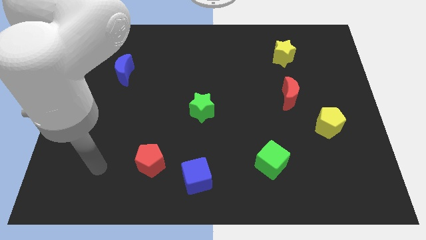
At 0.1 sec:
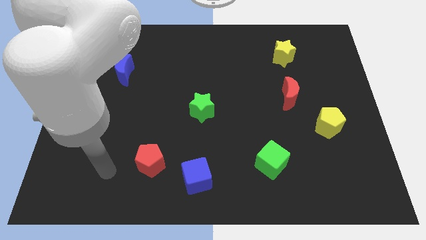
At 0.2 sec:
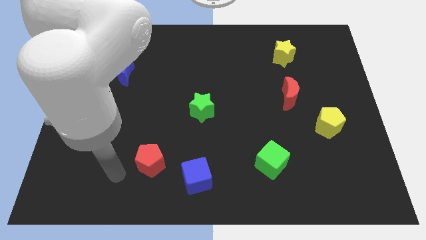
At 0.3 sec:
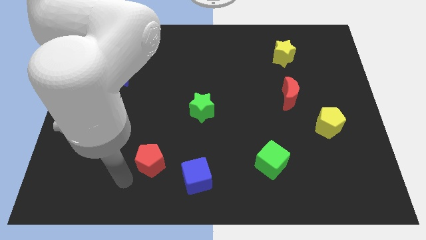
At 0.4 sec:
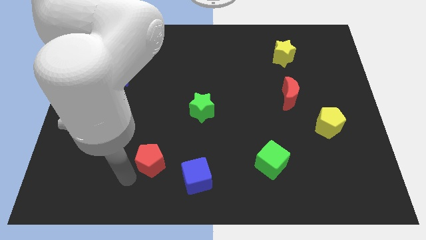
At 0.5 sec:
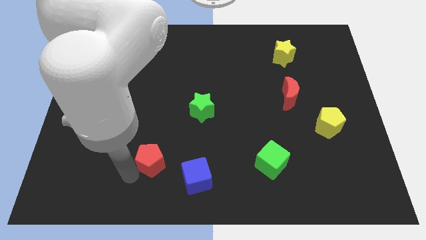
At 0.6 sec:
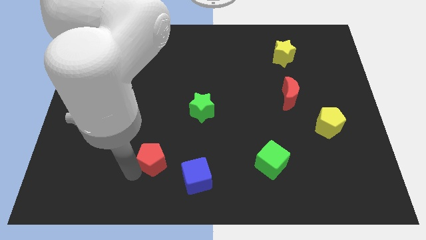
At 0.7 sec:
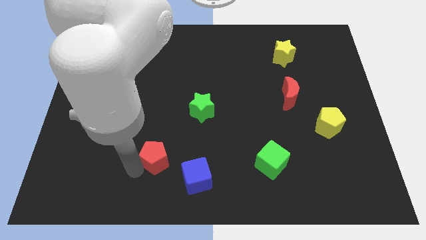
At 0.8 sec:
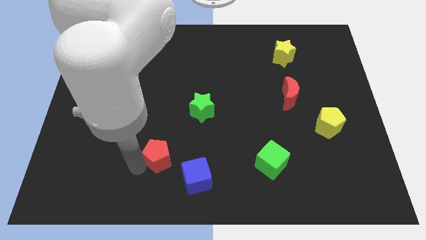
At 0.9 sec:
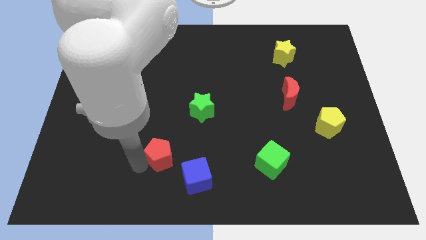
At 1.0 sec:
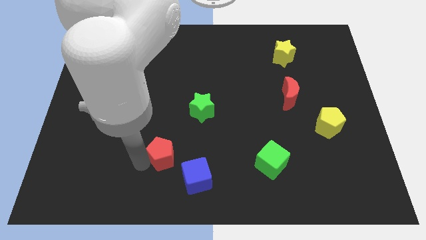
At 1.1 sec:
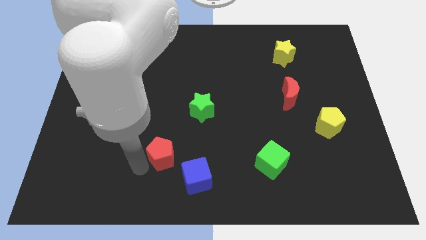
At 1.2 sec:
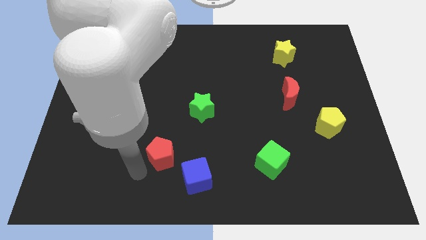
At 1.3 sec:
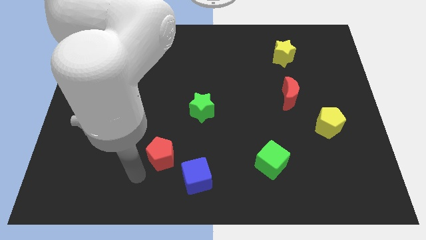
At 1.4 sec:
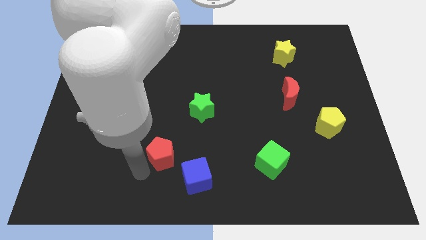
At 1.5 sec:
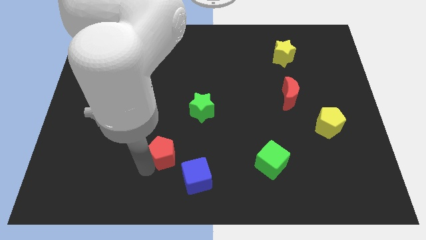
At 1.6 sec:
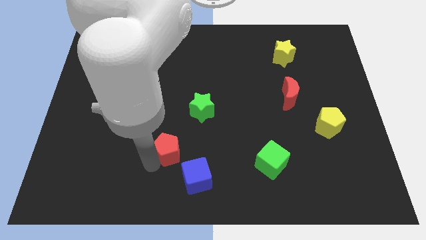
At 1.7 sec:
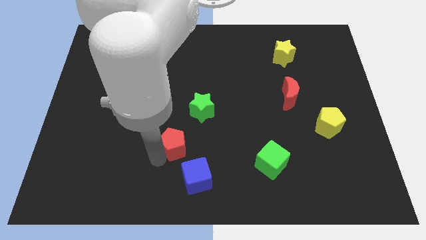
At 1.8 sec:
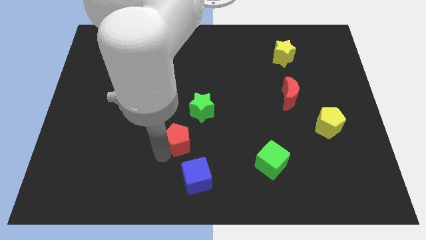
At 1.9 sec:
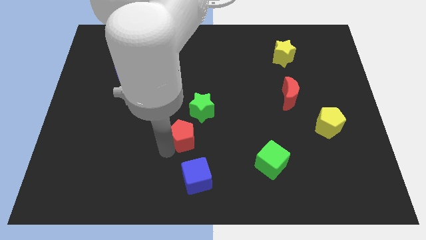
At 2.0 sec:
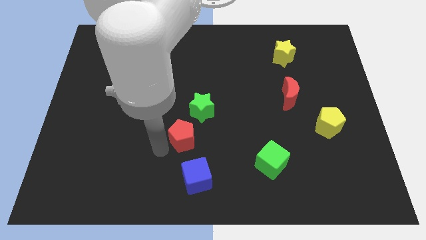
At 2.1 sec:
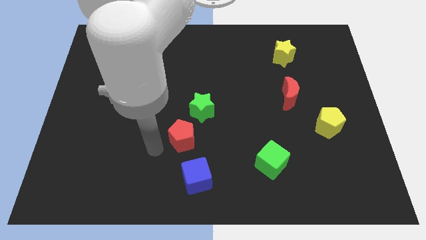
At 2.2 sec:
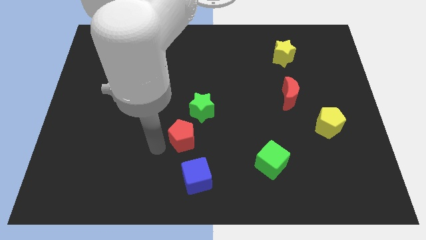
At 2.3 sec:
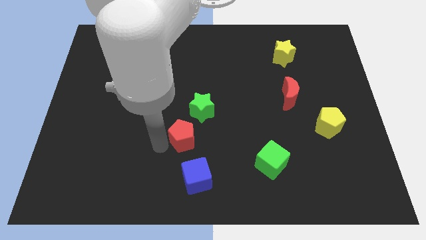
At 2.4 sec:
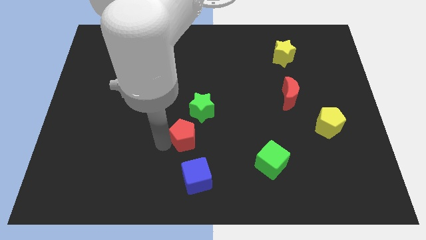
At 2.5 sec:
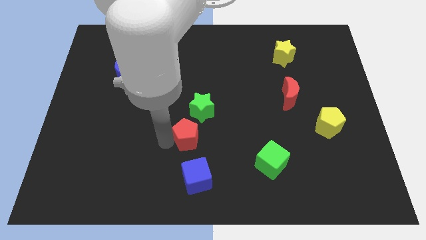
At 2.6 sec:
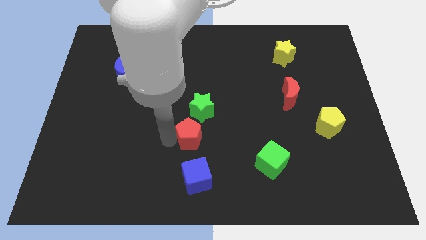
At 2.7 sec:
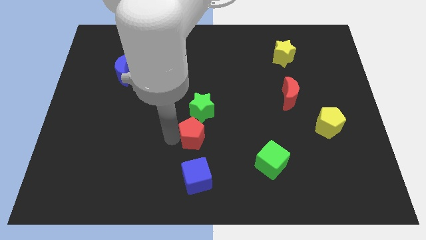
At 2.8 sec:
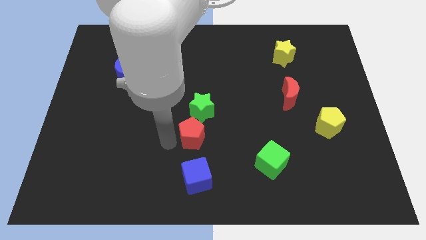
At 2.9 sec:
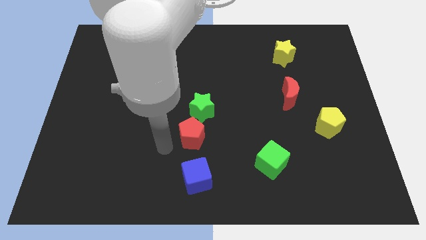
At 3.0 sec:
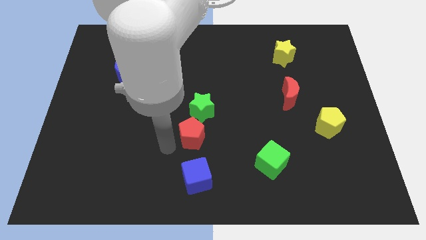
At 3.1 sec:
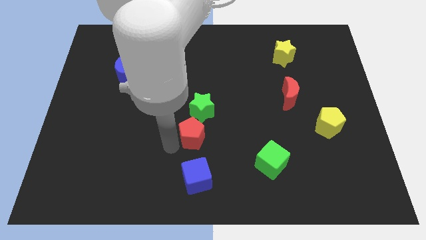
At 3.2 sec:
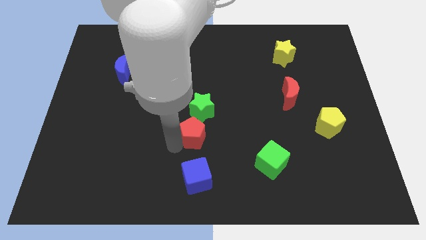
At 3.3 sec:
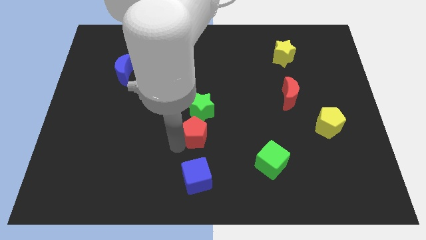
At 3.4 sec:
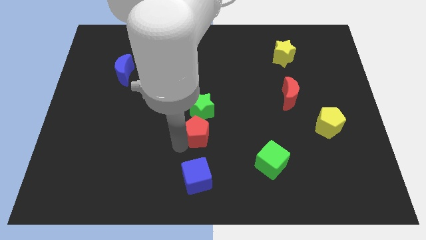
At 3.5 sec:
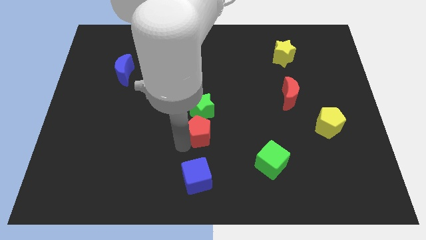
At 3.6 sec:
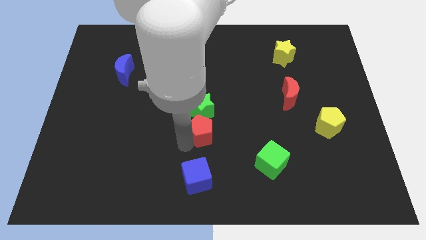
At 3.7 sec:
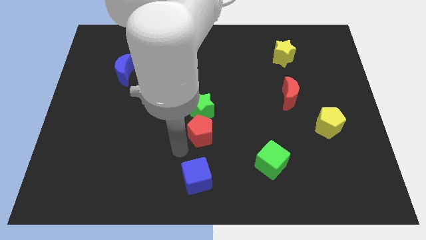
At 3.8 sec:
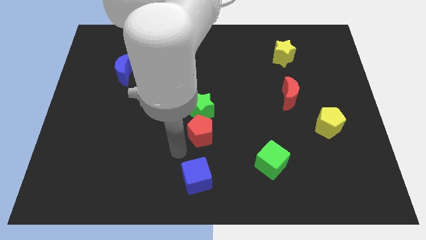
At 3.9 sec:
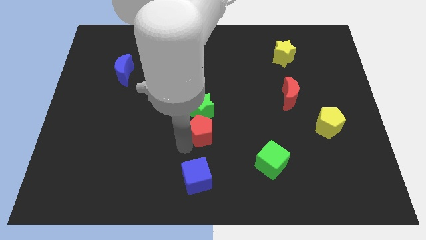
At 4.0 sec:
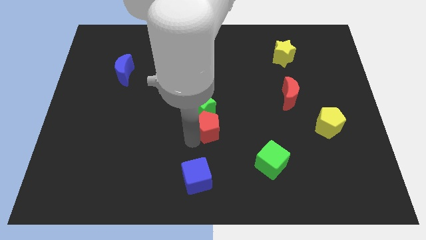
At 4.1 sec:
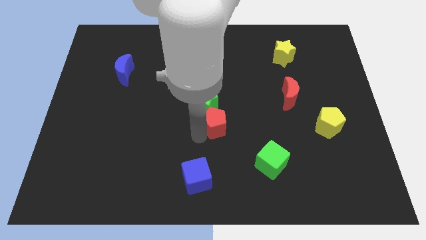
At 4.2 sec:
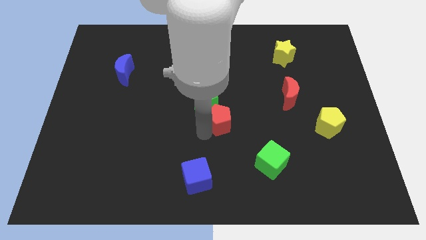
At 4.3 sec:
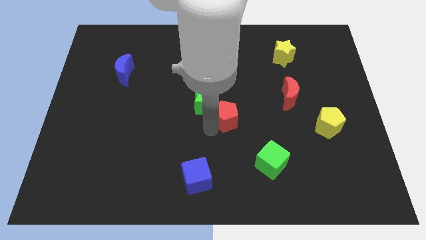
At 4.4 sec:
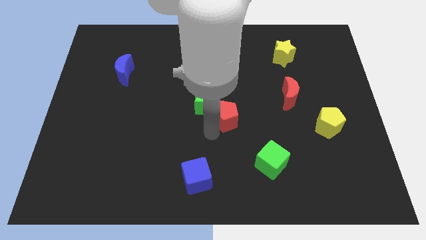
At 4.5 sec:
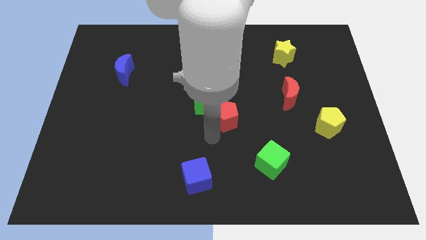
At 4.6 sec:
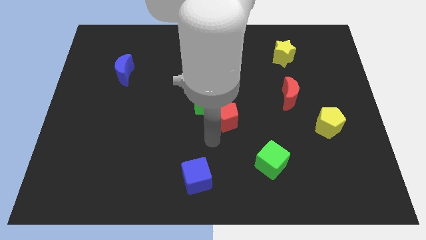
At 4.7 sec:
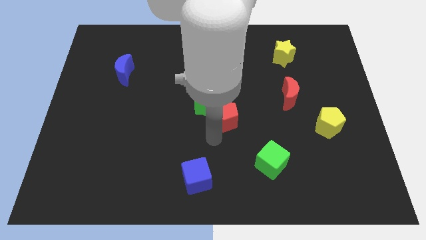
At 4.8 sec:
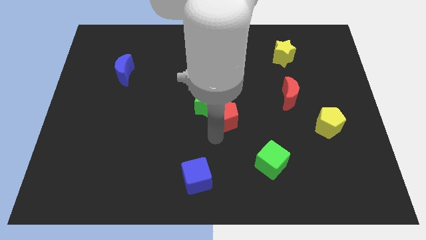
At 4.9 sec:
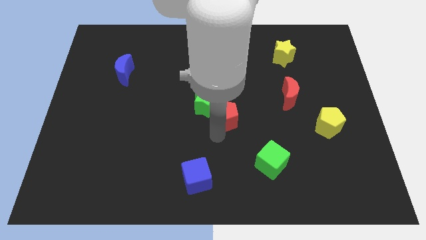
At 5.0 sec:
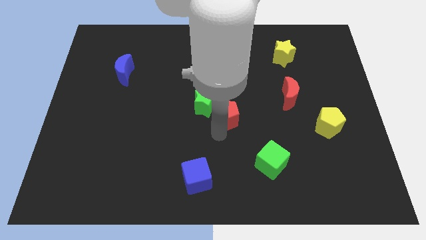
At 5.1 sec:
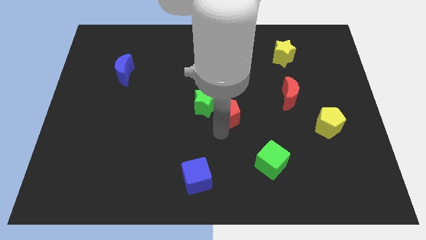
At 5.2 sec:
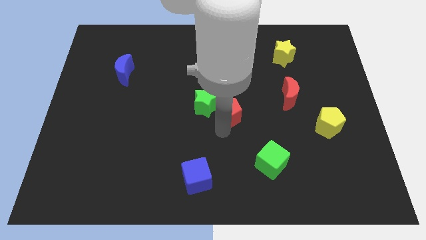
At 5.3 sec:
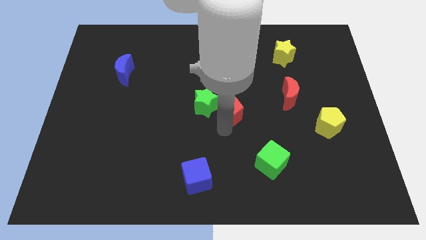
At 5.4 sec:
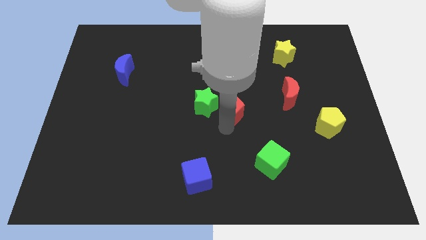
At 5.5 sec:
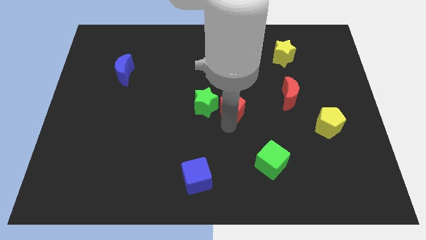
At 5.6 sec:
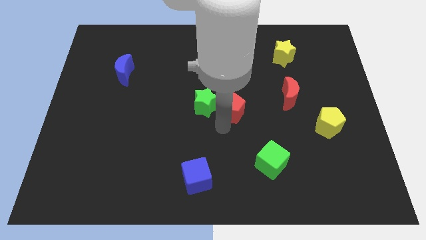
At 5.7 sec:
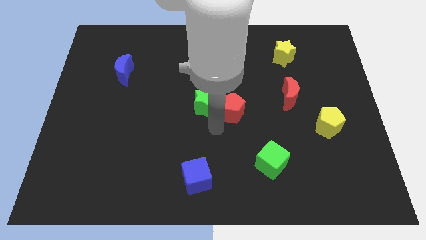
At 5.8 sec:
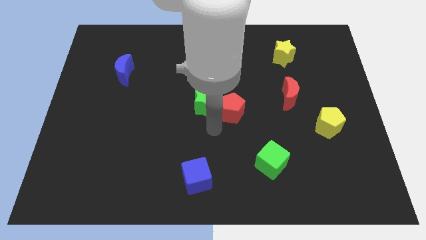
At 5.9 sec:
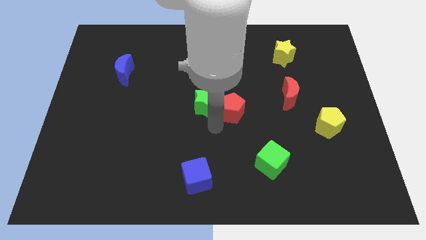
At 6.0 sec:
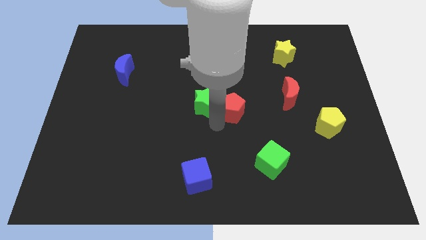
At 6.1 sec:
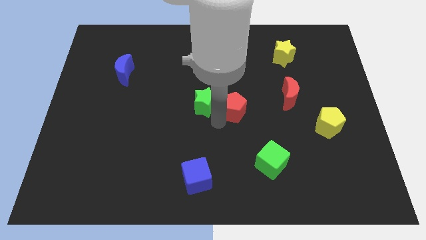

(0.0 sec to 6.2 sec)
move the red pentagon to the left side of the red moon
